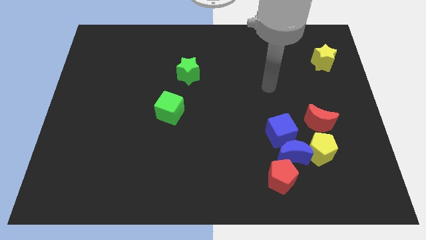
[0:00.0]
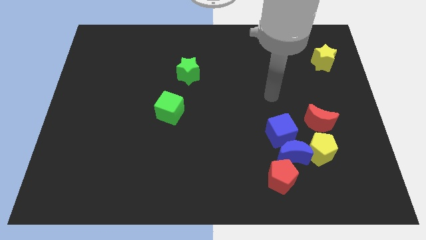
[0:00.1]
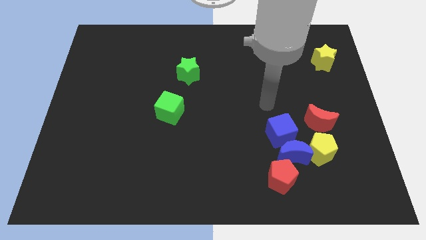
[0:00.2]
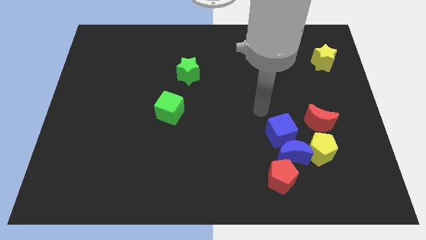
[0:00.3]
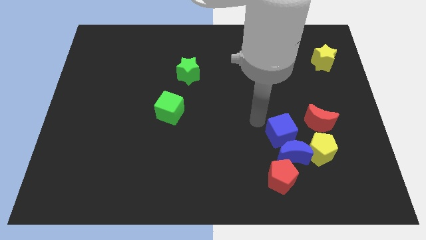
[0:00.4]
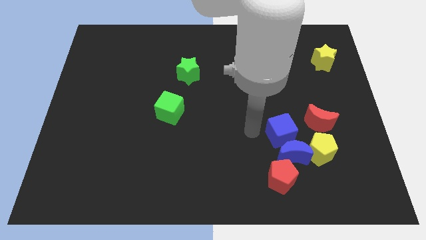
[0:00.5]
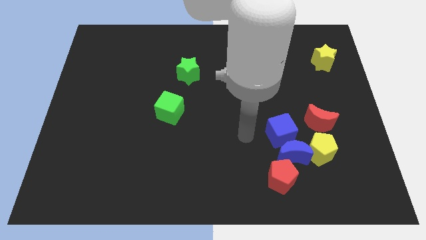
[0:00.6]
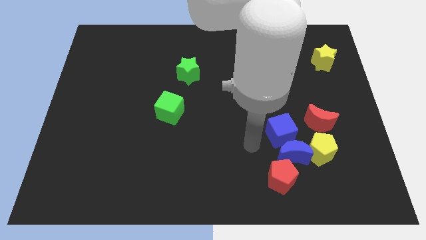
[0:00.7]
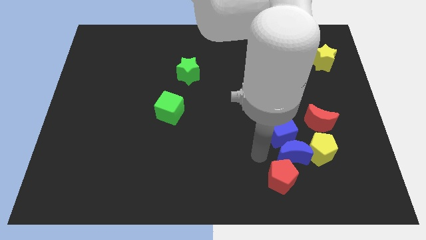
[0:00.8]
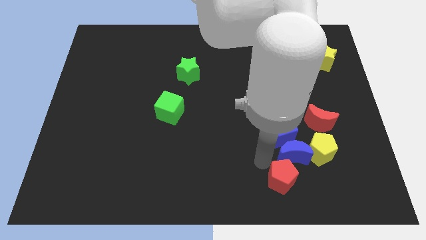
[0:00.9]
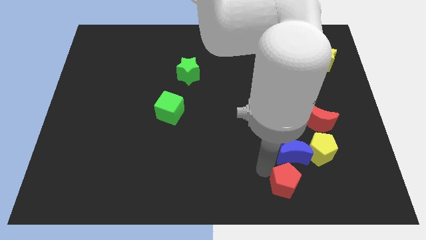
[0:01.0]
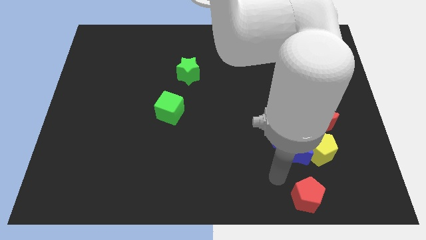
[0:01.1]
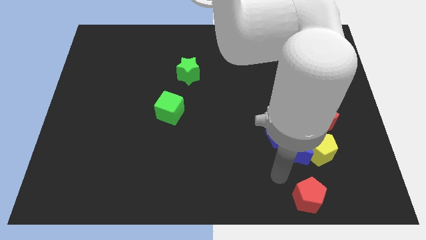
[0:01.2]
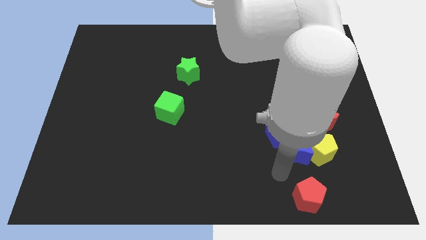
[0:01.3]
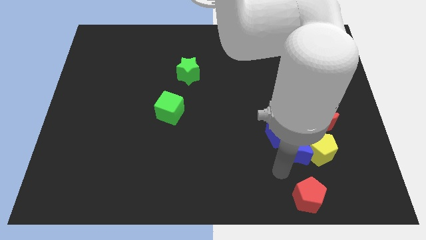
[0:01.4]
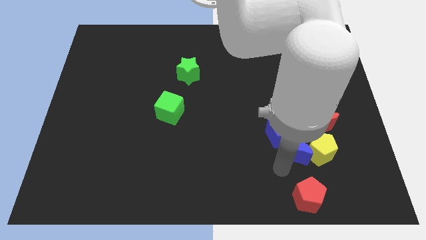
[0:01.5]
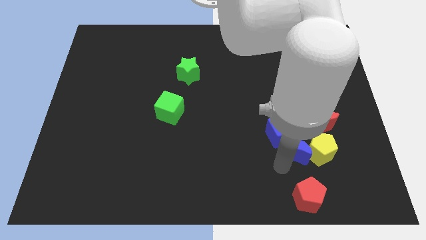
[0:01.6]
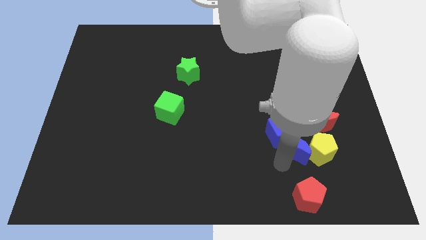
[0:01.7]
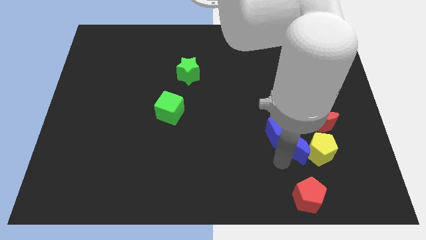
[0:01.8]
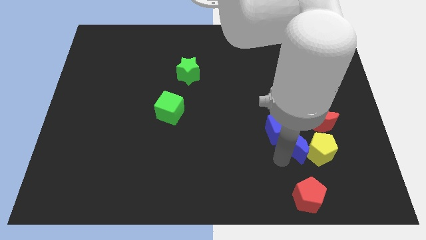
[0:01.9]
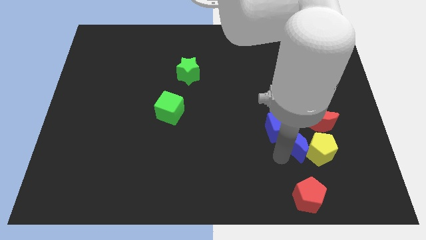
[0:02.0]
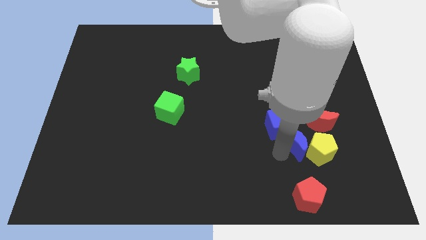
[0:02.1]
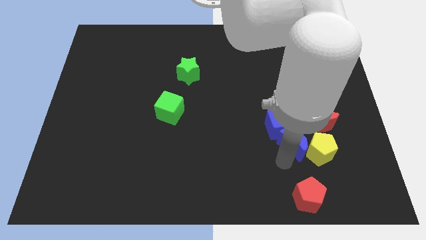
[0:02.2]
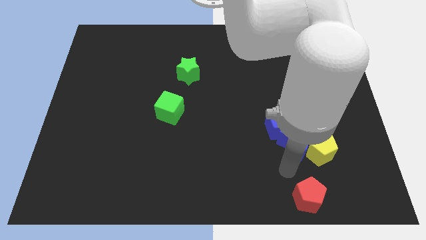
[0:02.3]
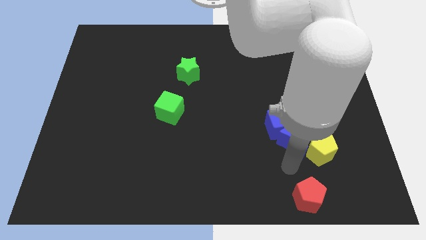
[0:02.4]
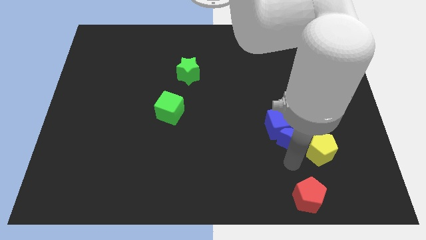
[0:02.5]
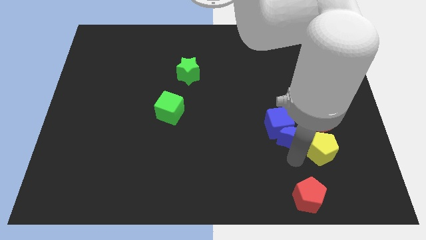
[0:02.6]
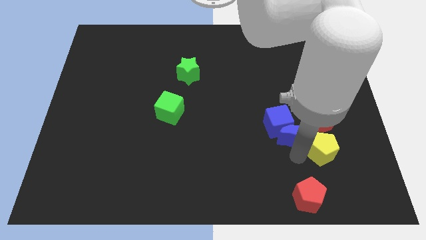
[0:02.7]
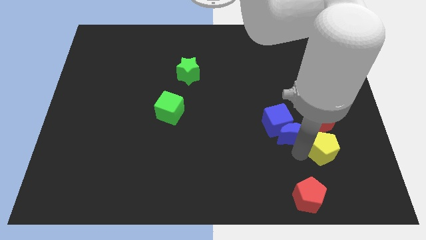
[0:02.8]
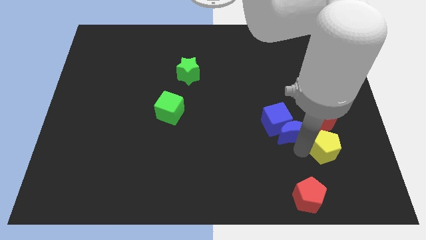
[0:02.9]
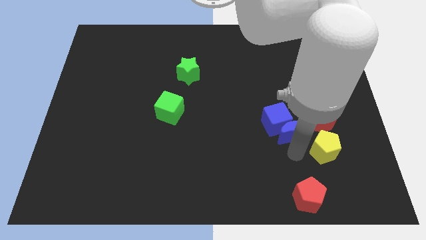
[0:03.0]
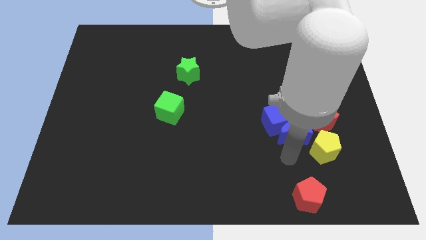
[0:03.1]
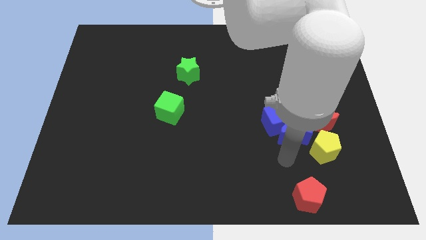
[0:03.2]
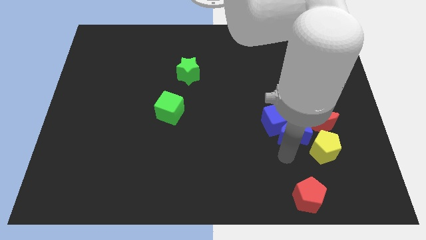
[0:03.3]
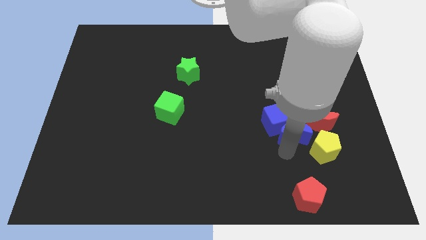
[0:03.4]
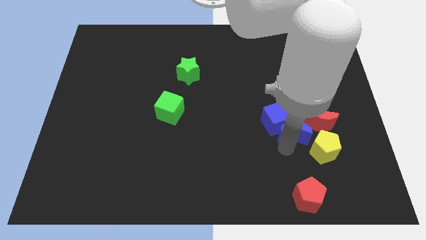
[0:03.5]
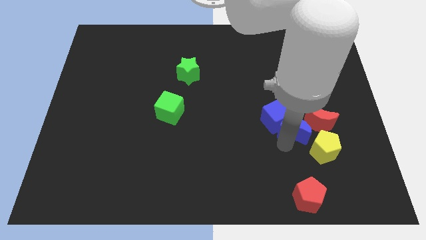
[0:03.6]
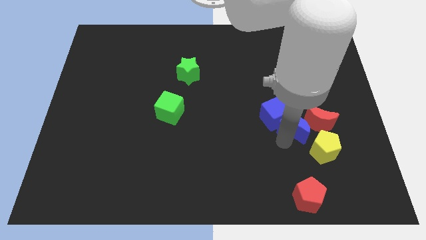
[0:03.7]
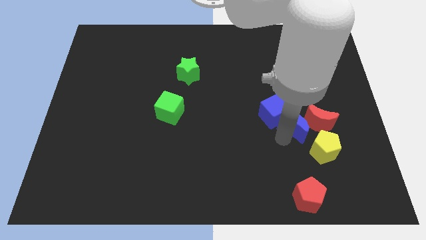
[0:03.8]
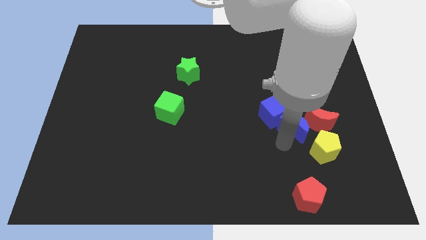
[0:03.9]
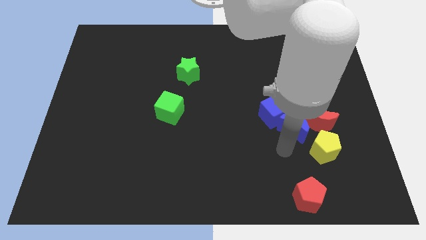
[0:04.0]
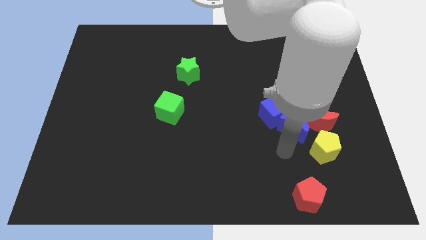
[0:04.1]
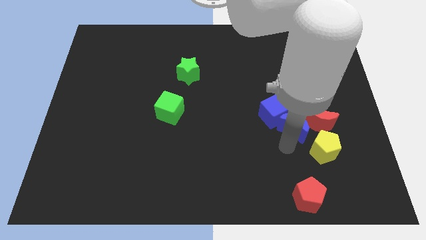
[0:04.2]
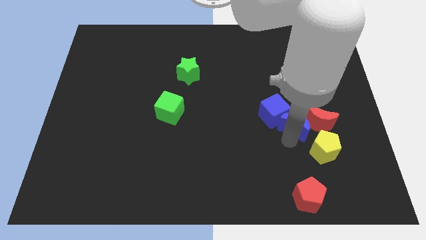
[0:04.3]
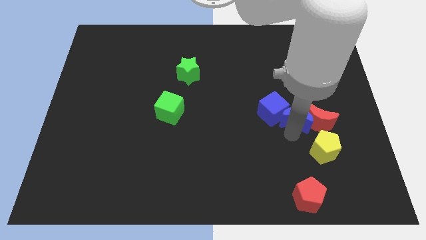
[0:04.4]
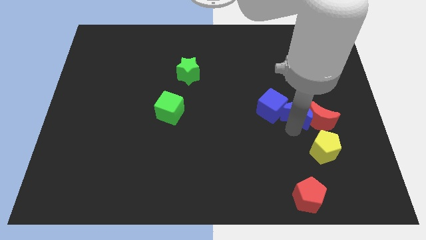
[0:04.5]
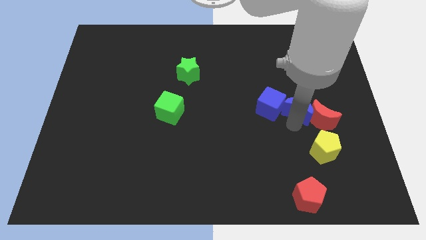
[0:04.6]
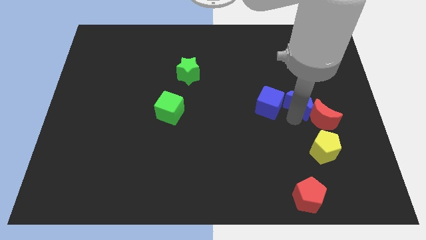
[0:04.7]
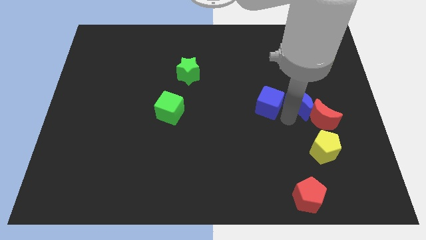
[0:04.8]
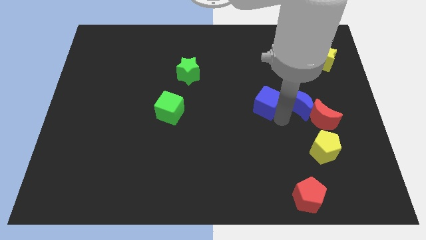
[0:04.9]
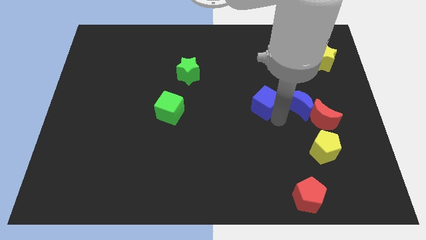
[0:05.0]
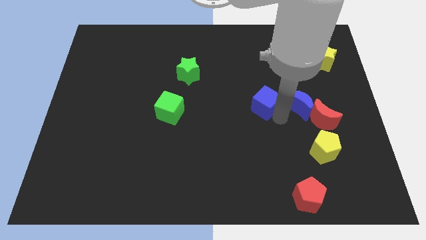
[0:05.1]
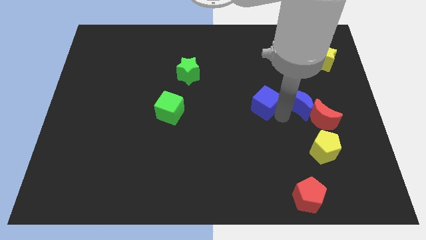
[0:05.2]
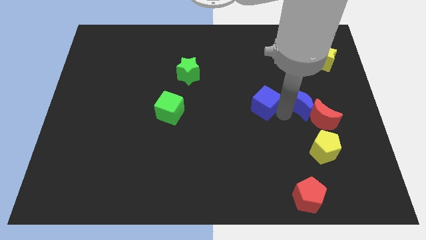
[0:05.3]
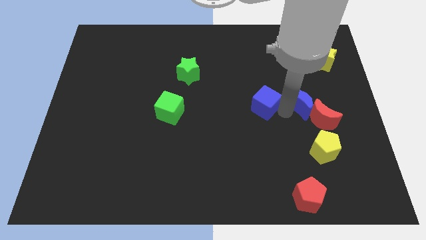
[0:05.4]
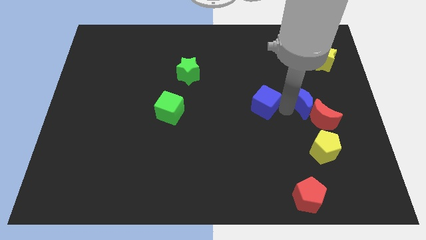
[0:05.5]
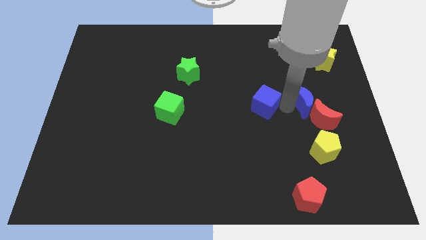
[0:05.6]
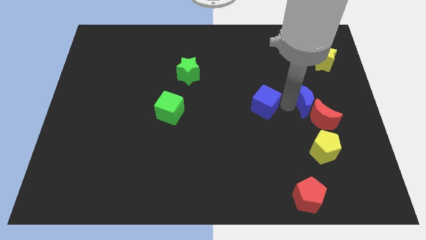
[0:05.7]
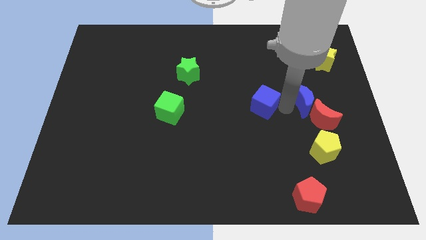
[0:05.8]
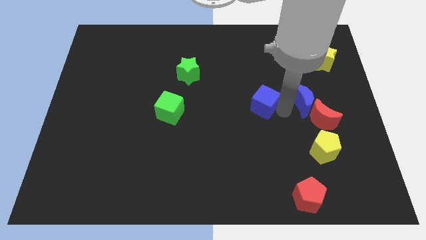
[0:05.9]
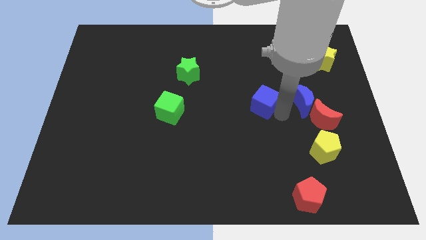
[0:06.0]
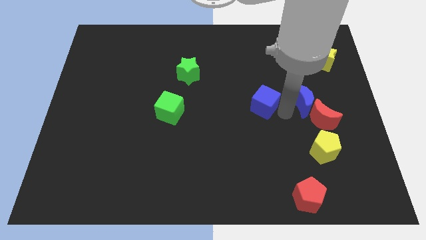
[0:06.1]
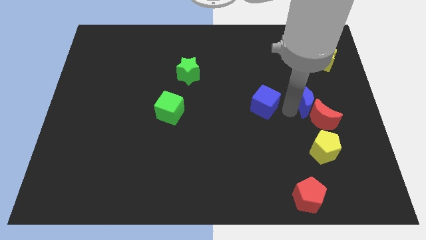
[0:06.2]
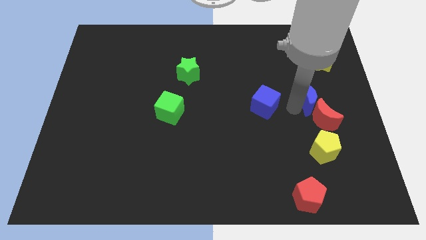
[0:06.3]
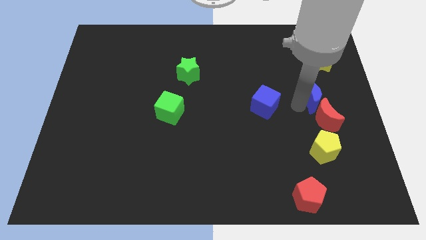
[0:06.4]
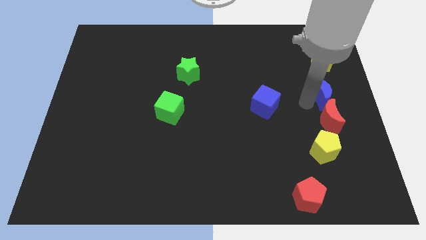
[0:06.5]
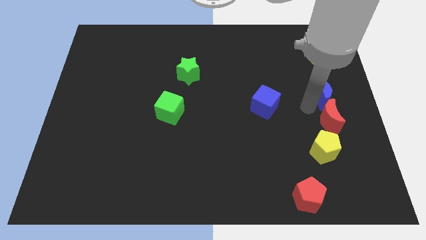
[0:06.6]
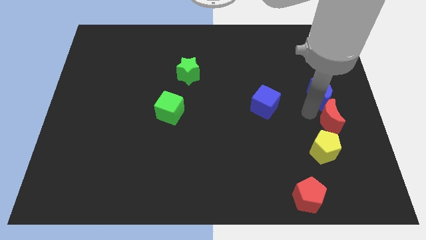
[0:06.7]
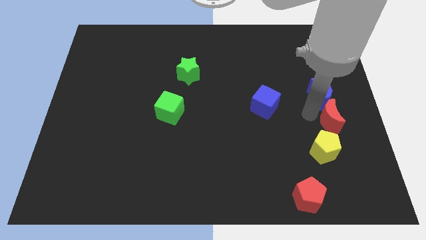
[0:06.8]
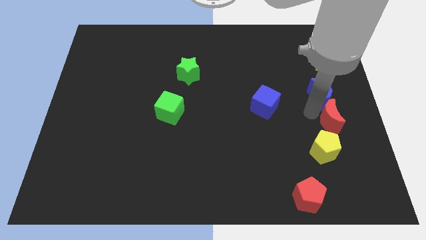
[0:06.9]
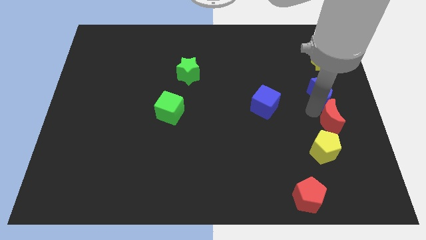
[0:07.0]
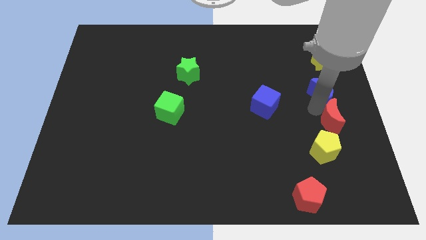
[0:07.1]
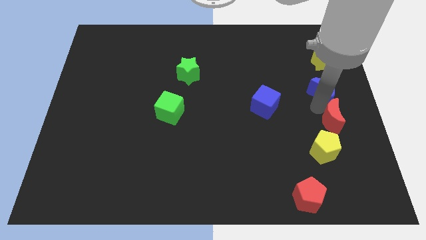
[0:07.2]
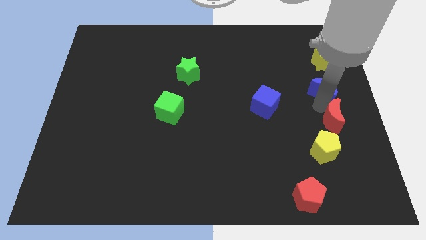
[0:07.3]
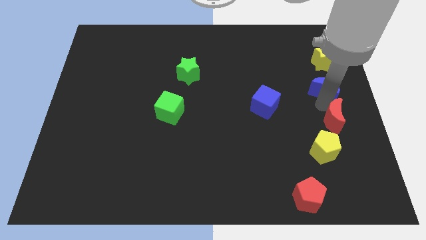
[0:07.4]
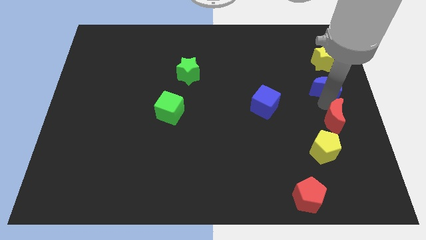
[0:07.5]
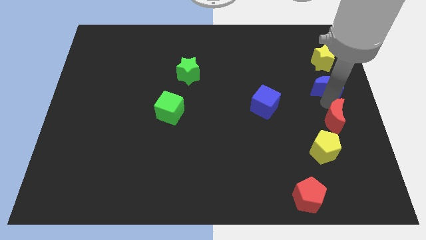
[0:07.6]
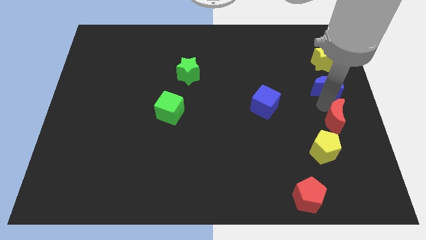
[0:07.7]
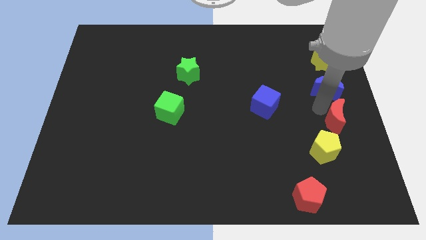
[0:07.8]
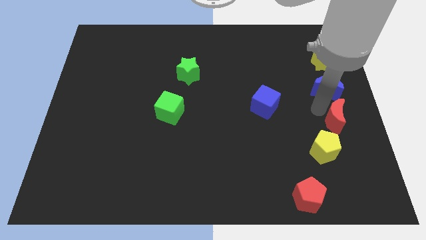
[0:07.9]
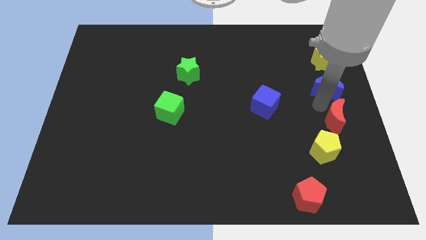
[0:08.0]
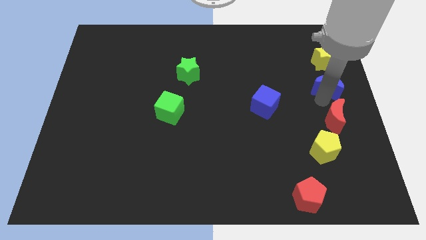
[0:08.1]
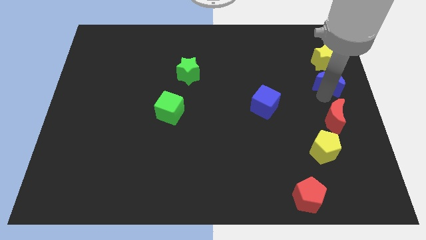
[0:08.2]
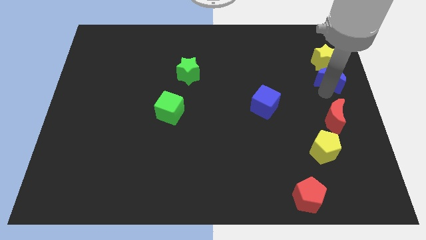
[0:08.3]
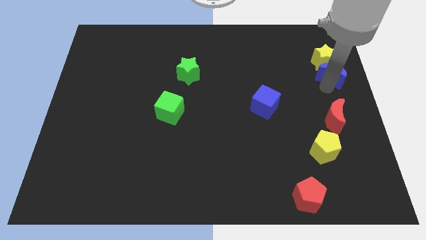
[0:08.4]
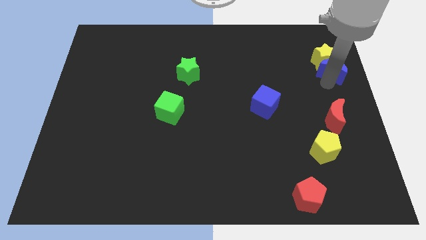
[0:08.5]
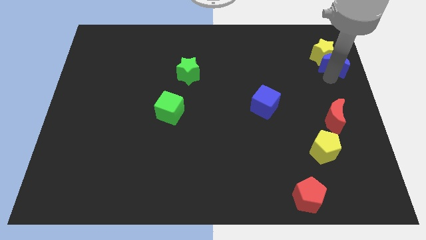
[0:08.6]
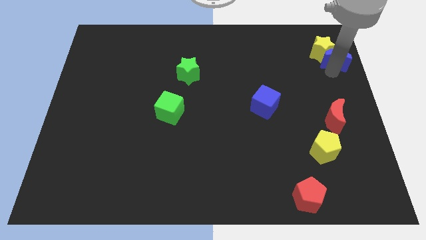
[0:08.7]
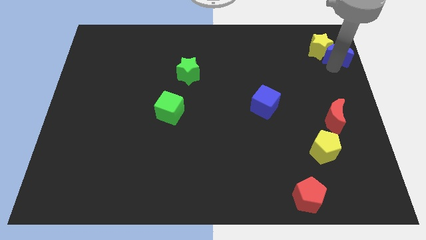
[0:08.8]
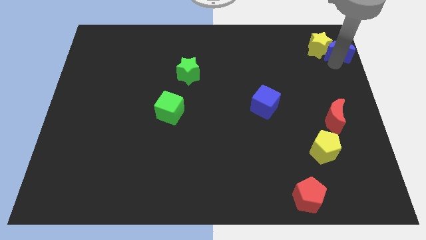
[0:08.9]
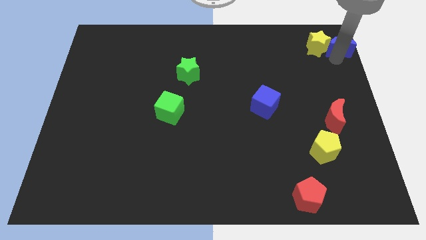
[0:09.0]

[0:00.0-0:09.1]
put the blue moon to the top right
